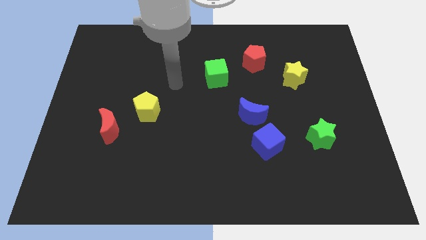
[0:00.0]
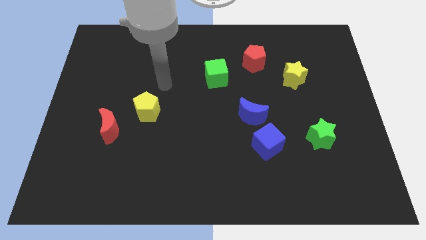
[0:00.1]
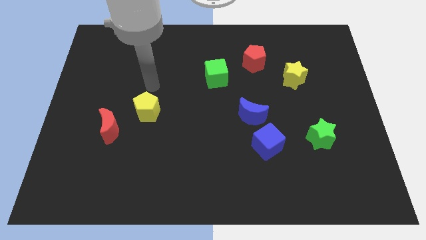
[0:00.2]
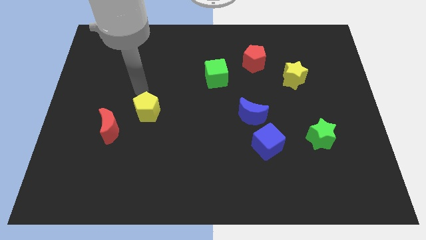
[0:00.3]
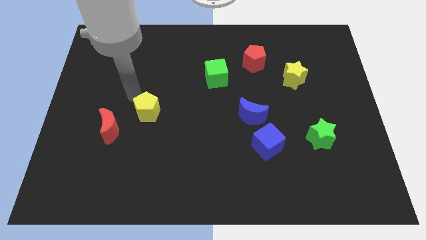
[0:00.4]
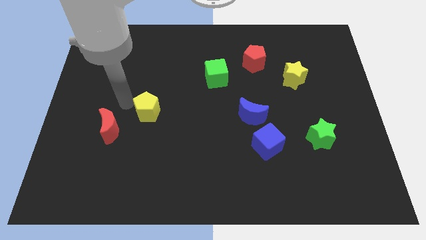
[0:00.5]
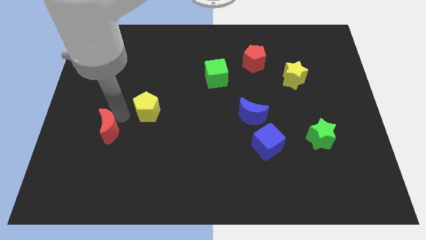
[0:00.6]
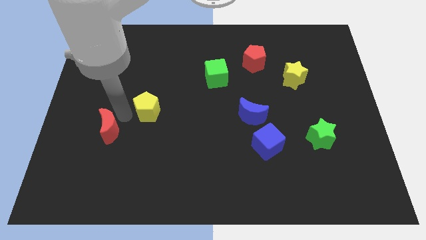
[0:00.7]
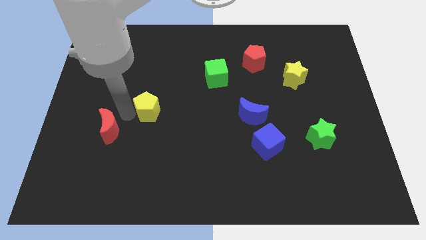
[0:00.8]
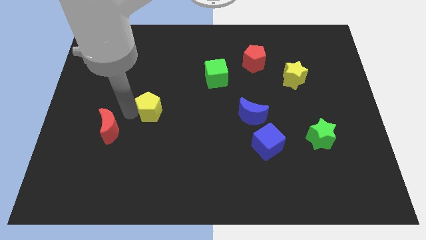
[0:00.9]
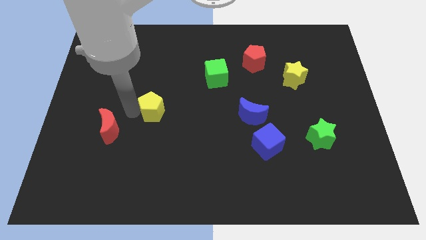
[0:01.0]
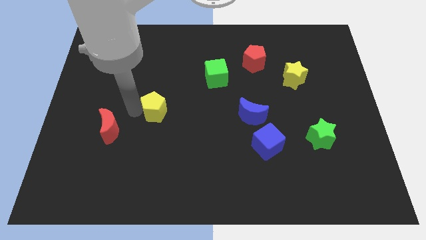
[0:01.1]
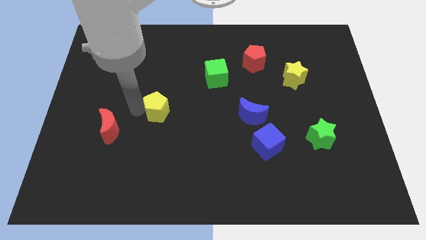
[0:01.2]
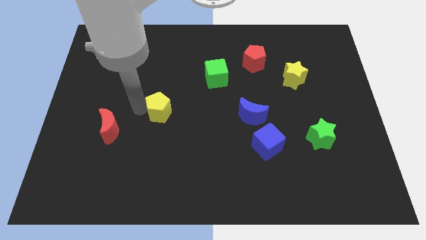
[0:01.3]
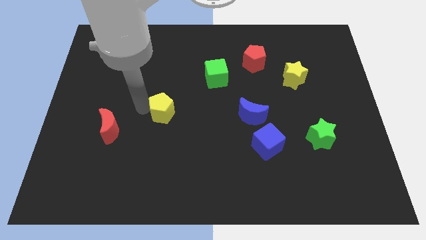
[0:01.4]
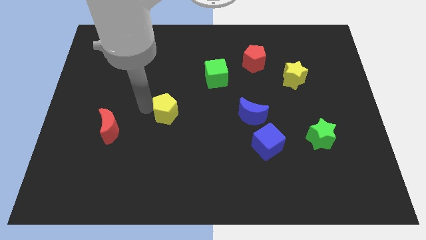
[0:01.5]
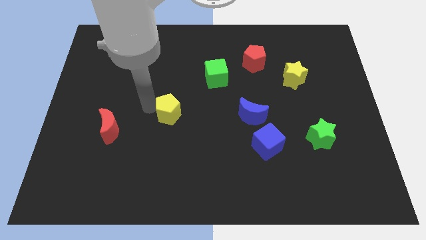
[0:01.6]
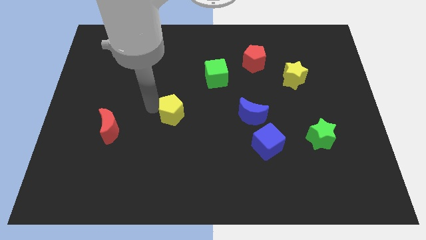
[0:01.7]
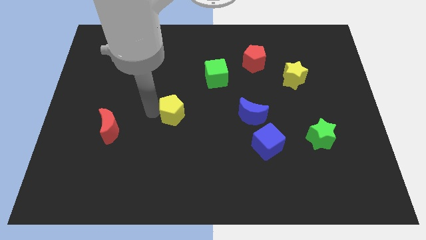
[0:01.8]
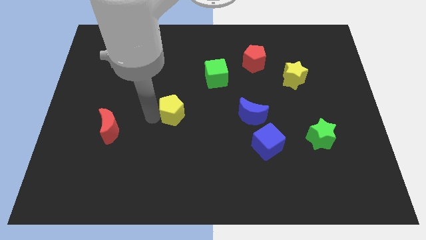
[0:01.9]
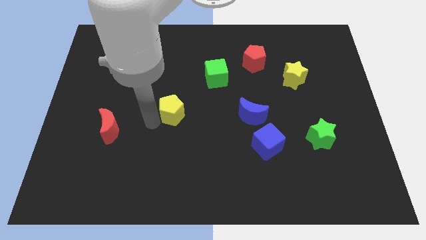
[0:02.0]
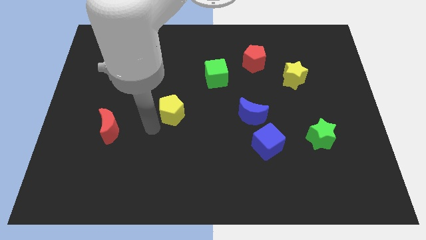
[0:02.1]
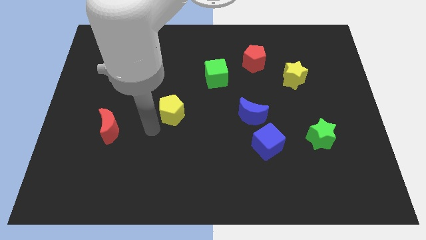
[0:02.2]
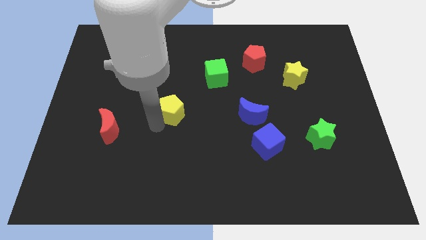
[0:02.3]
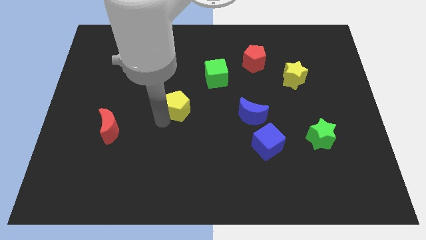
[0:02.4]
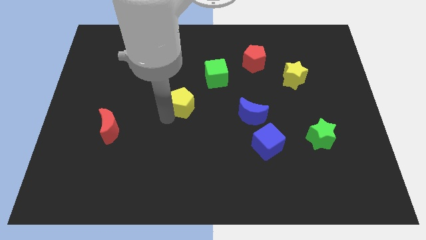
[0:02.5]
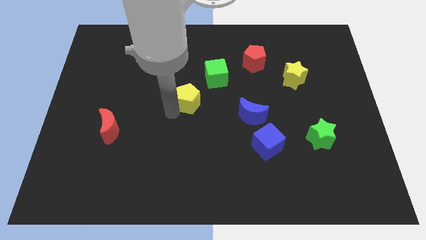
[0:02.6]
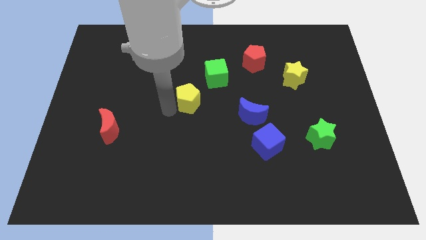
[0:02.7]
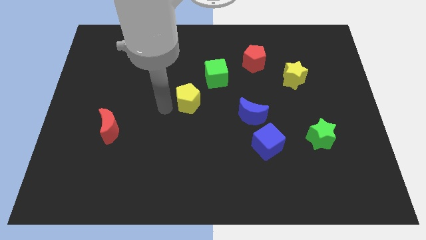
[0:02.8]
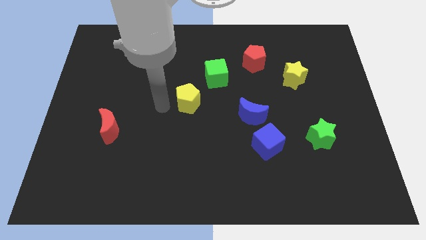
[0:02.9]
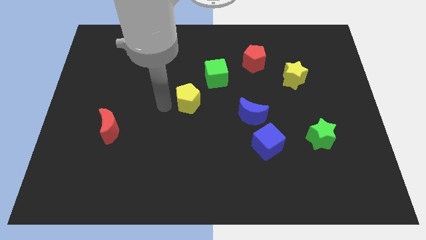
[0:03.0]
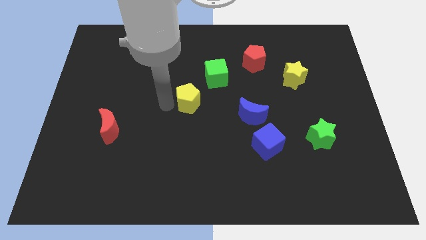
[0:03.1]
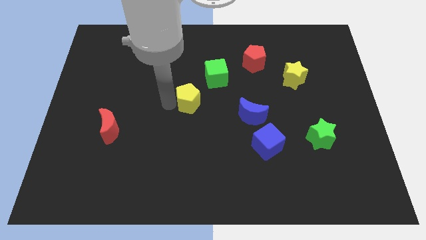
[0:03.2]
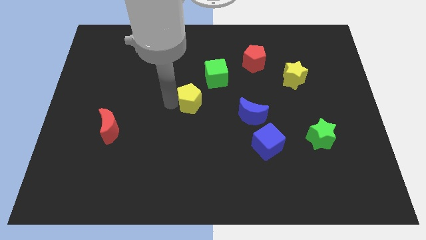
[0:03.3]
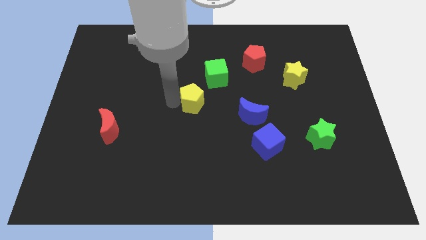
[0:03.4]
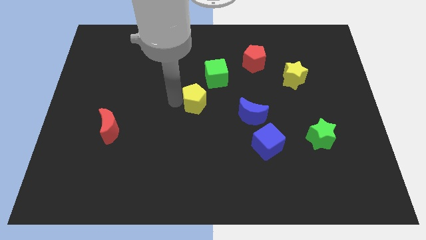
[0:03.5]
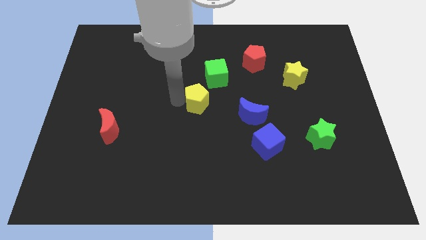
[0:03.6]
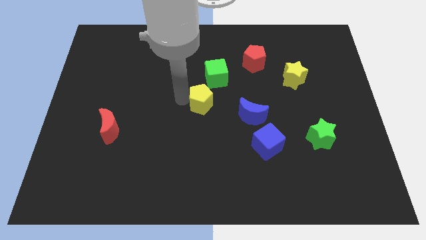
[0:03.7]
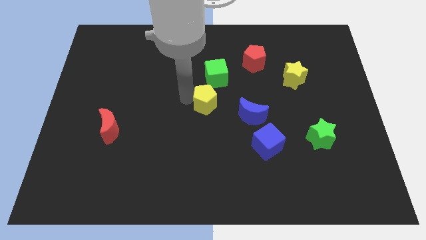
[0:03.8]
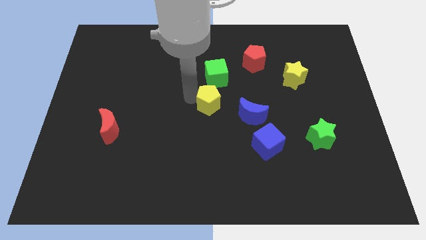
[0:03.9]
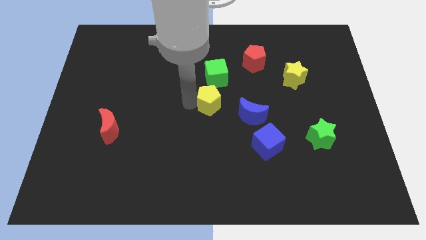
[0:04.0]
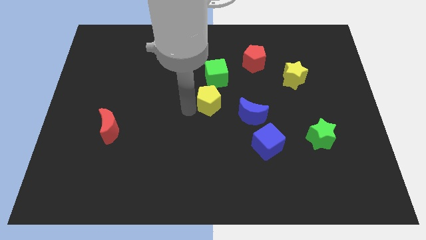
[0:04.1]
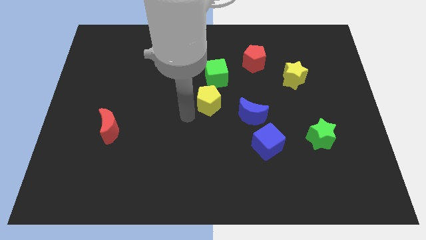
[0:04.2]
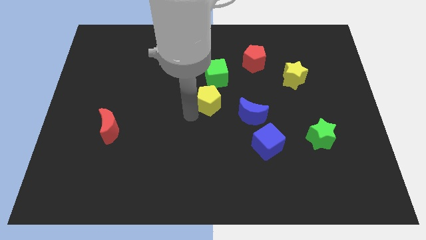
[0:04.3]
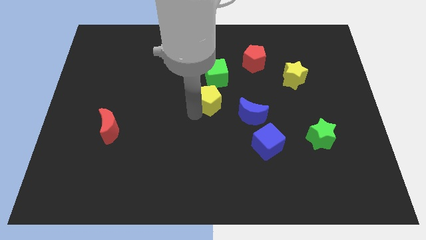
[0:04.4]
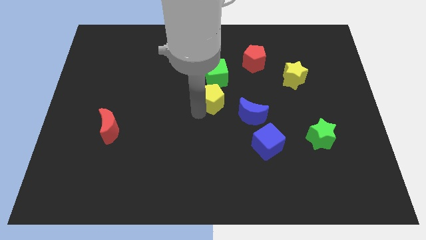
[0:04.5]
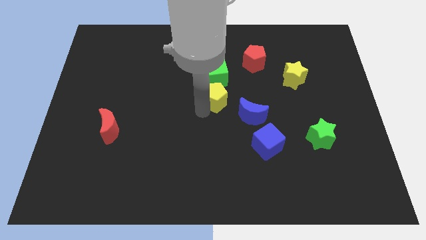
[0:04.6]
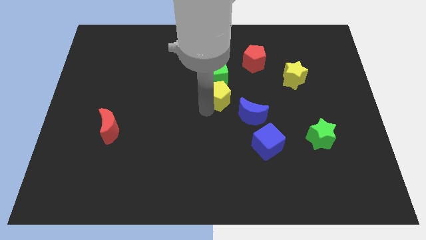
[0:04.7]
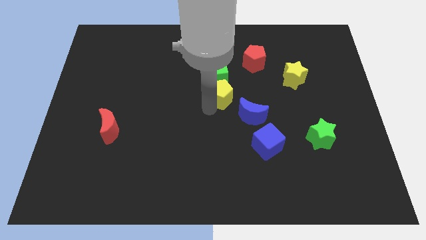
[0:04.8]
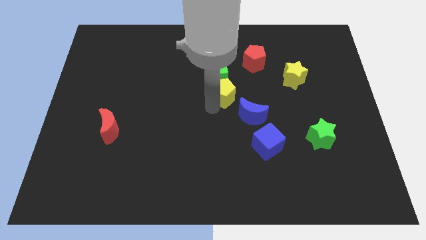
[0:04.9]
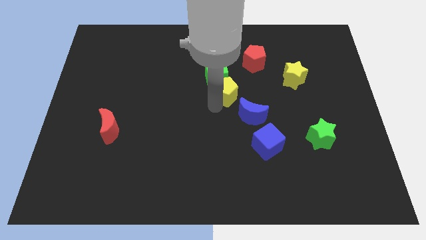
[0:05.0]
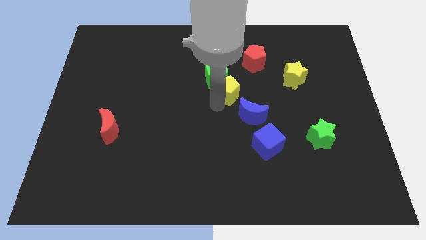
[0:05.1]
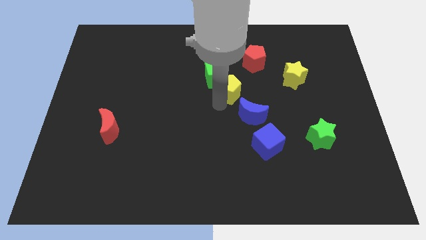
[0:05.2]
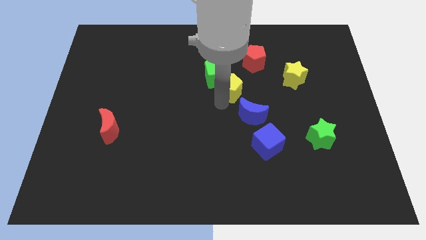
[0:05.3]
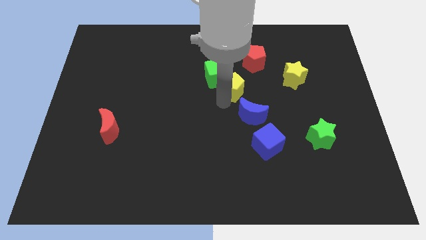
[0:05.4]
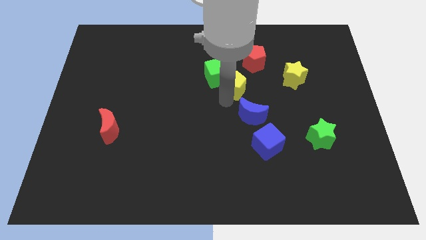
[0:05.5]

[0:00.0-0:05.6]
slide the yellow pentagon left of the yellow star

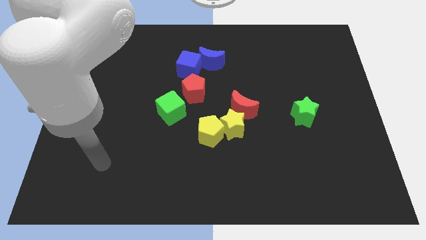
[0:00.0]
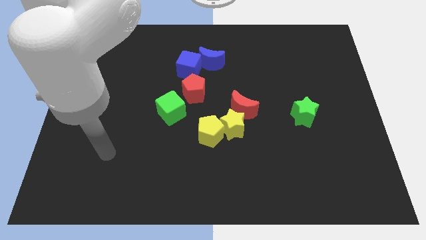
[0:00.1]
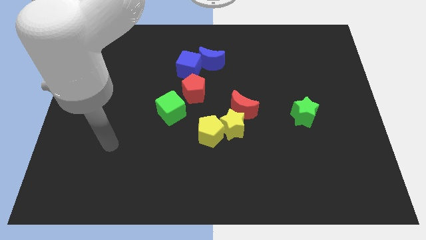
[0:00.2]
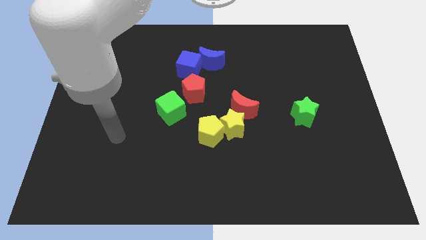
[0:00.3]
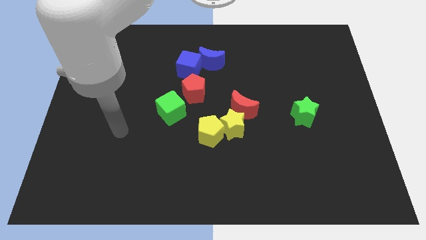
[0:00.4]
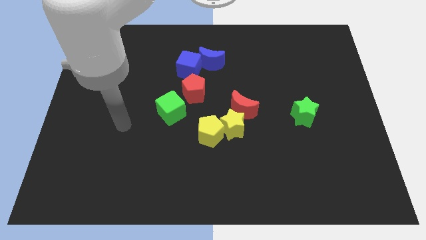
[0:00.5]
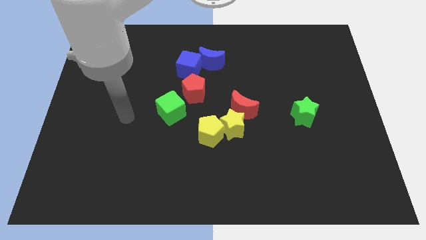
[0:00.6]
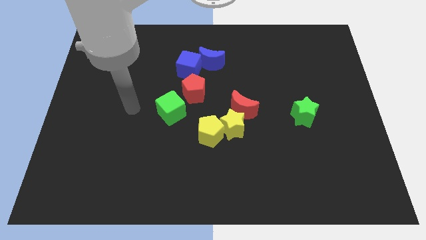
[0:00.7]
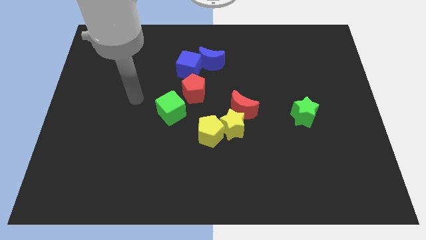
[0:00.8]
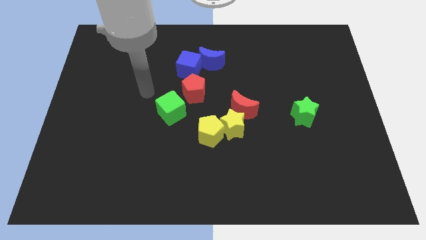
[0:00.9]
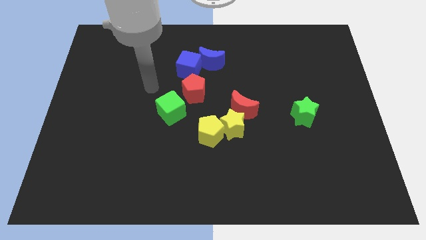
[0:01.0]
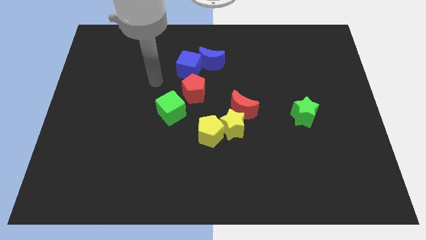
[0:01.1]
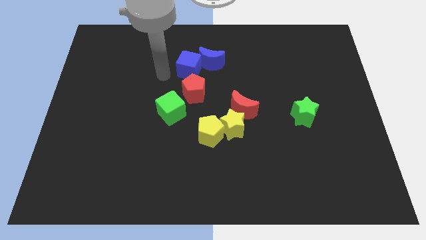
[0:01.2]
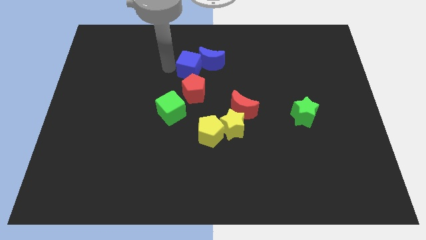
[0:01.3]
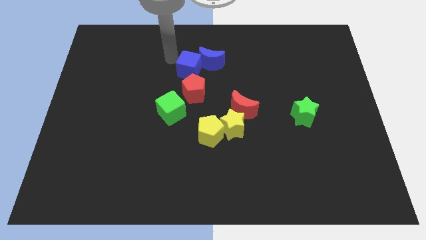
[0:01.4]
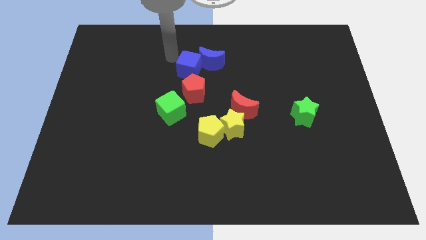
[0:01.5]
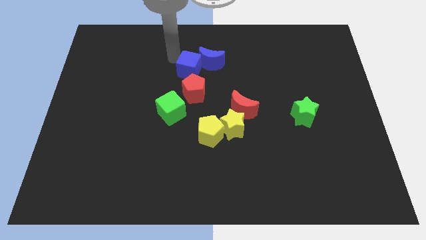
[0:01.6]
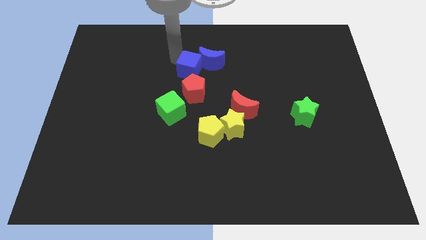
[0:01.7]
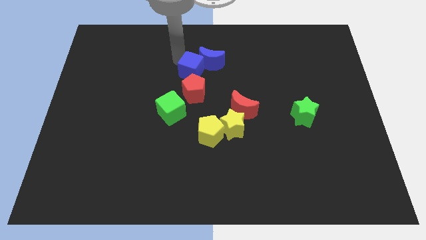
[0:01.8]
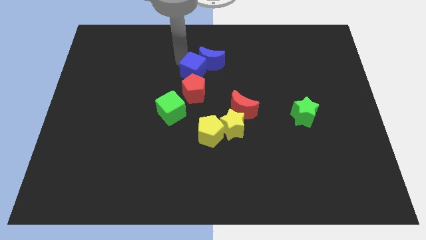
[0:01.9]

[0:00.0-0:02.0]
push the blue cube to the bottom side of the blue moon

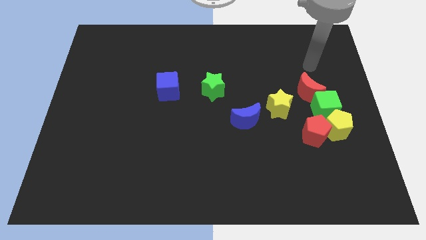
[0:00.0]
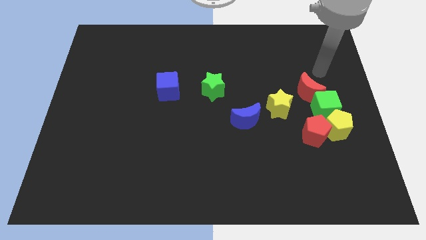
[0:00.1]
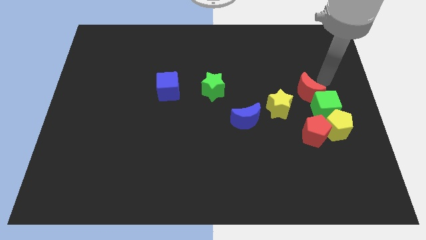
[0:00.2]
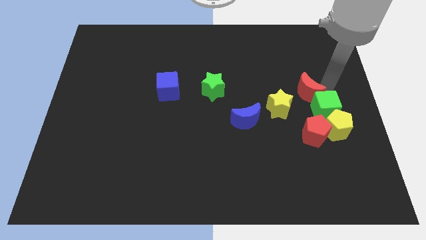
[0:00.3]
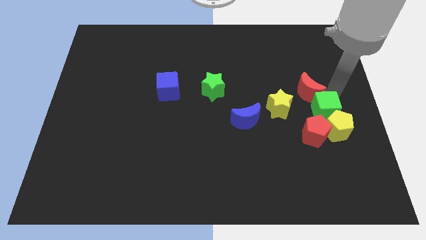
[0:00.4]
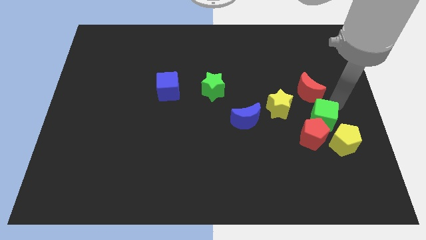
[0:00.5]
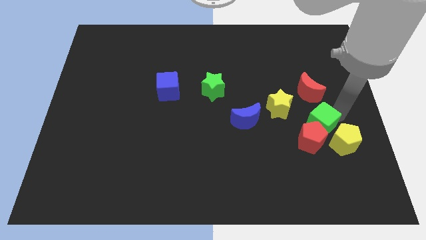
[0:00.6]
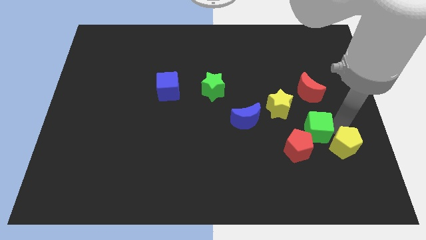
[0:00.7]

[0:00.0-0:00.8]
move the red pentagon to the bottom of the yellow star

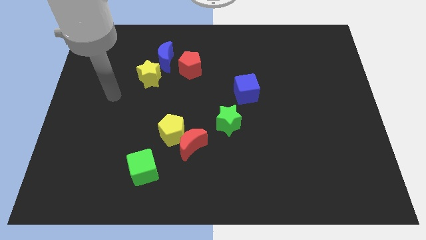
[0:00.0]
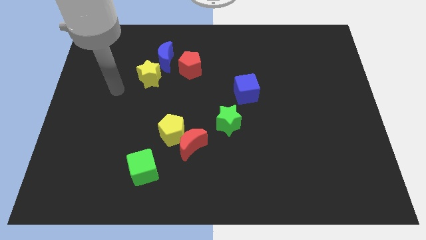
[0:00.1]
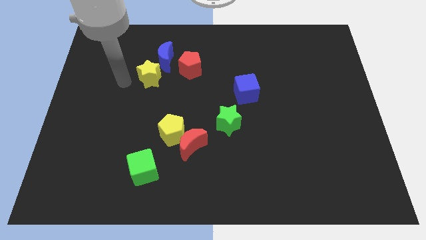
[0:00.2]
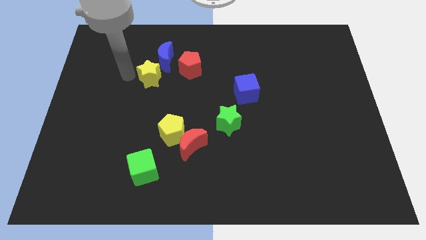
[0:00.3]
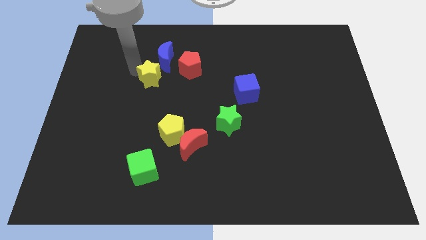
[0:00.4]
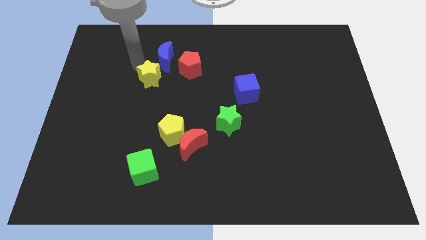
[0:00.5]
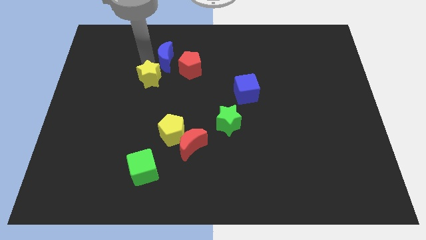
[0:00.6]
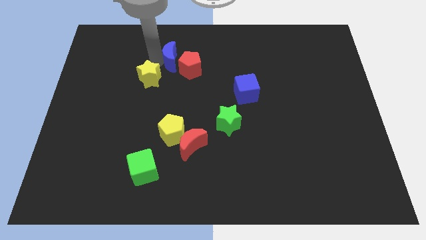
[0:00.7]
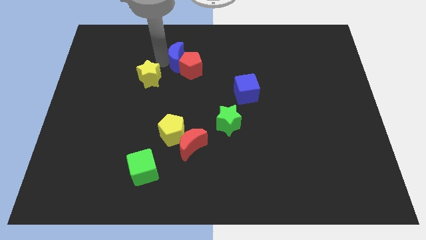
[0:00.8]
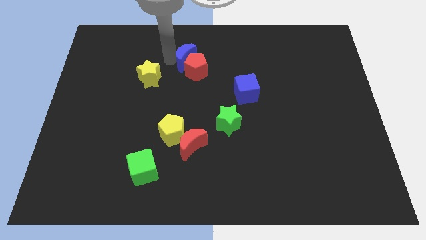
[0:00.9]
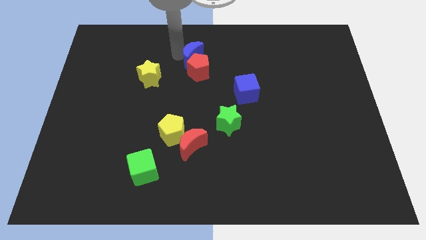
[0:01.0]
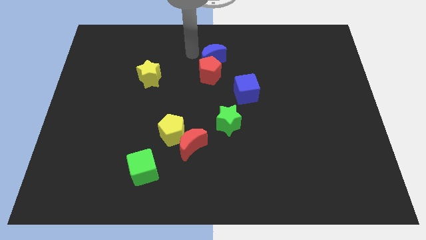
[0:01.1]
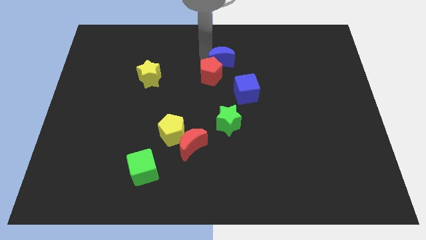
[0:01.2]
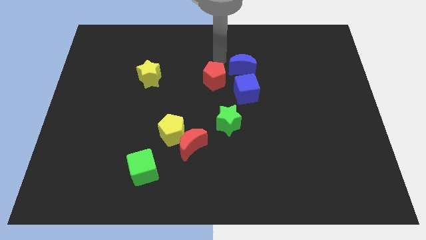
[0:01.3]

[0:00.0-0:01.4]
slide the red pentagon just left of the blue cube
